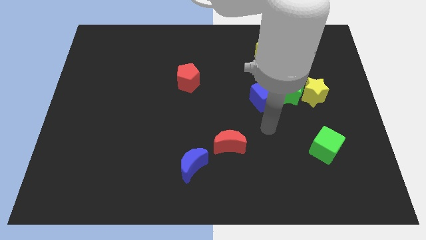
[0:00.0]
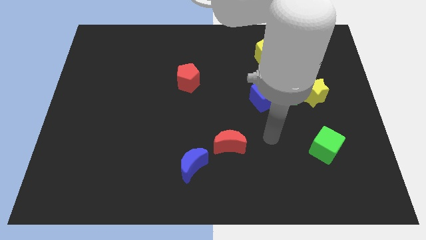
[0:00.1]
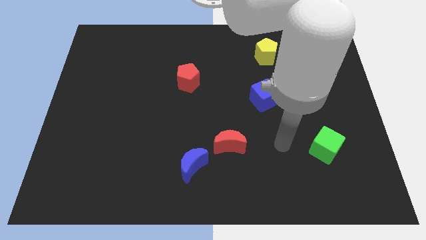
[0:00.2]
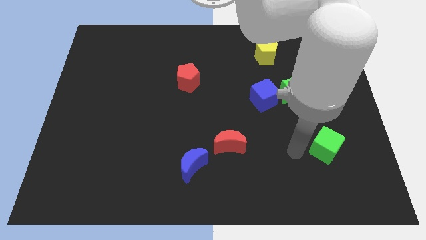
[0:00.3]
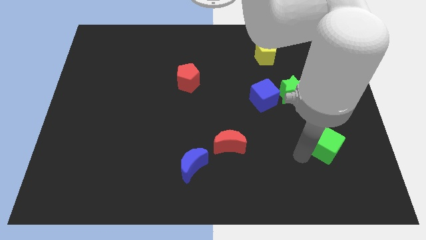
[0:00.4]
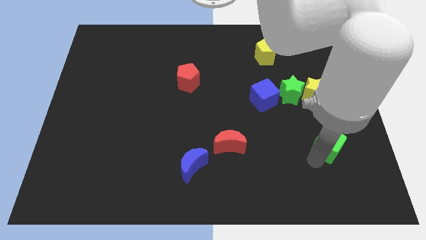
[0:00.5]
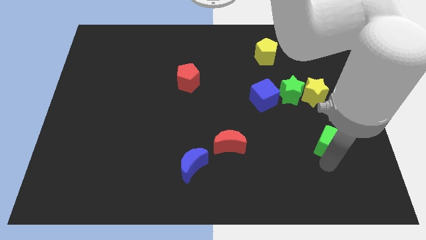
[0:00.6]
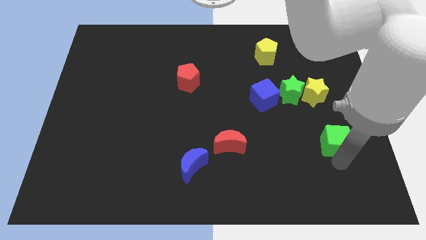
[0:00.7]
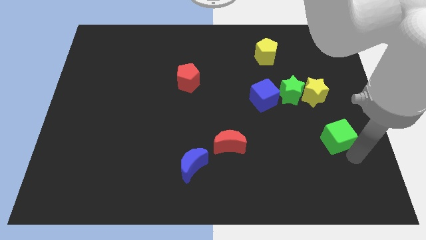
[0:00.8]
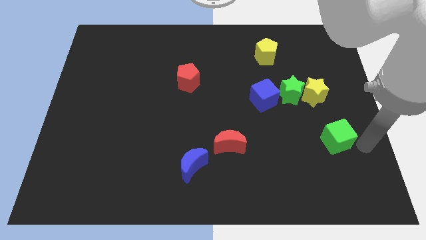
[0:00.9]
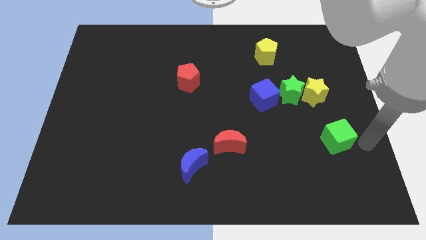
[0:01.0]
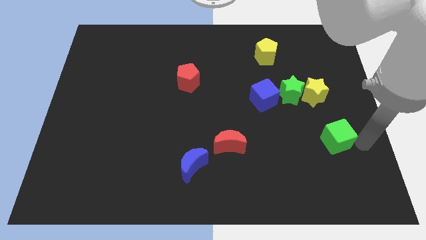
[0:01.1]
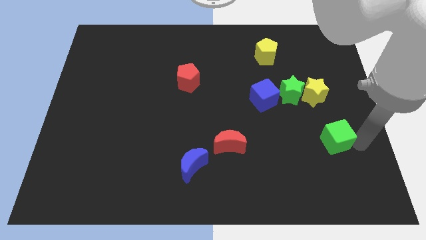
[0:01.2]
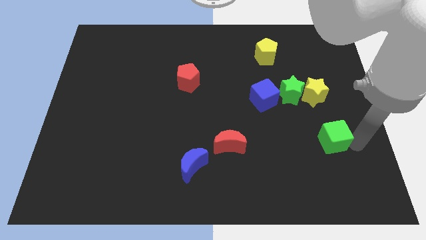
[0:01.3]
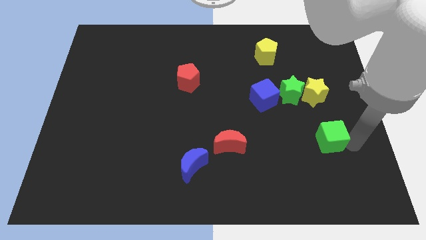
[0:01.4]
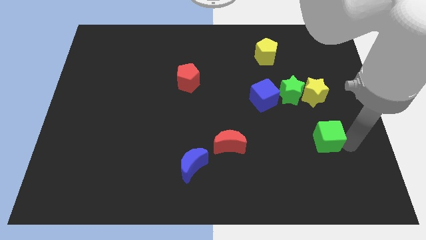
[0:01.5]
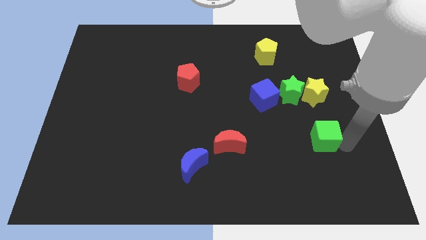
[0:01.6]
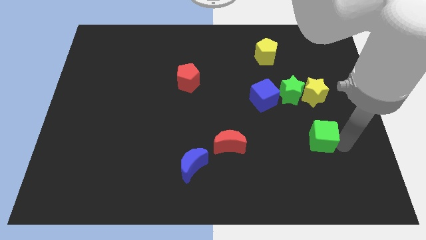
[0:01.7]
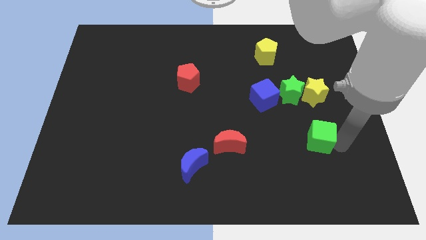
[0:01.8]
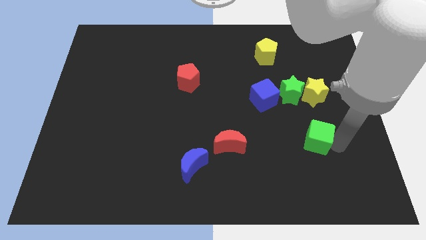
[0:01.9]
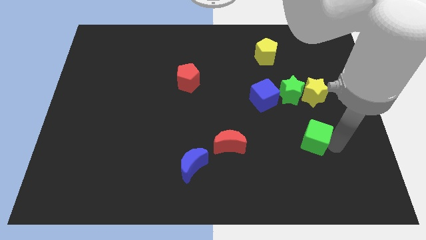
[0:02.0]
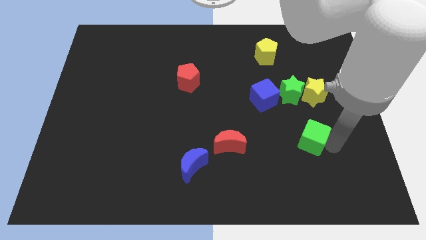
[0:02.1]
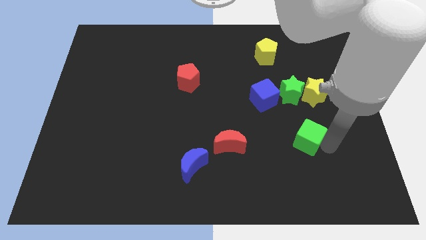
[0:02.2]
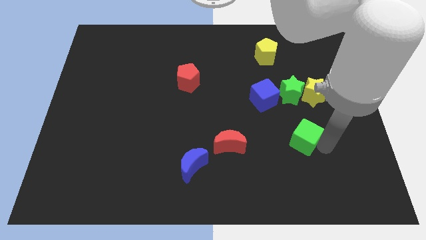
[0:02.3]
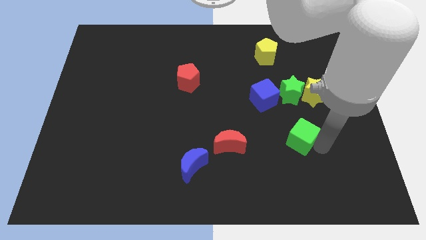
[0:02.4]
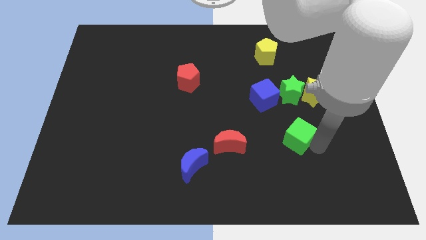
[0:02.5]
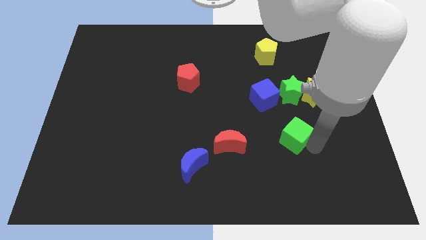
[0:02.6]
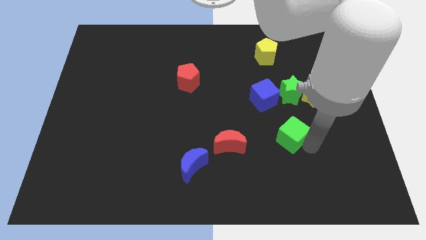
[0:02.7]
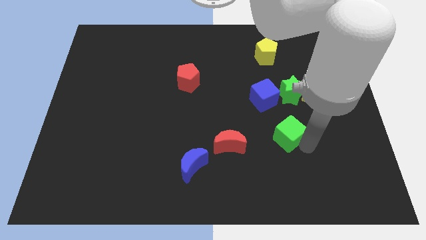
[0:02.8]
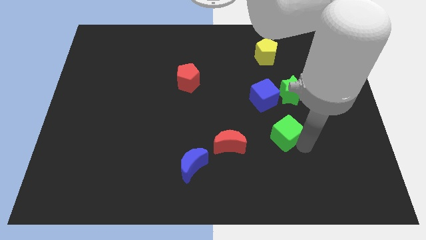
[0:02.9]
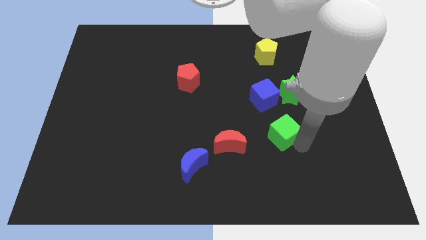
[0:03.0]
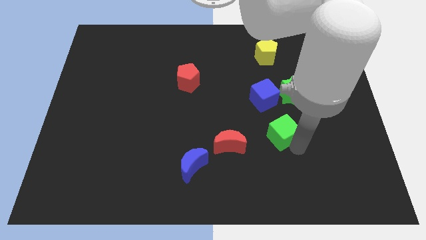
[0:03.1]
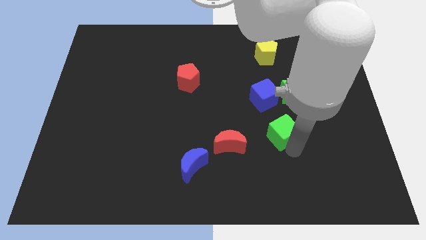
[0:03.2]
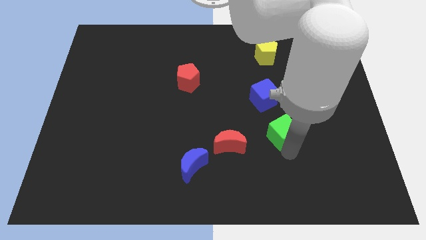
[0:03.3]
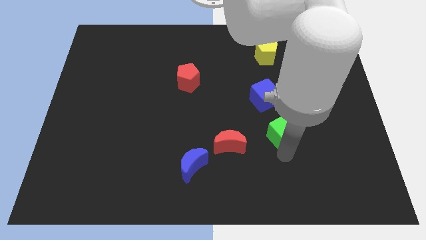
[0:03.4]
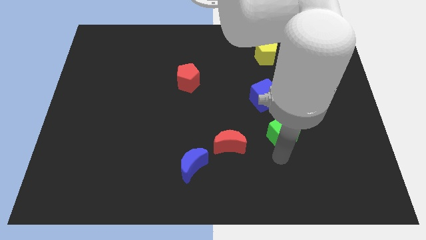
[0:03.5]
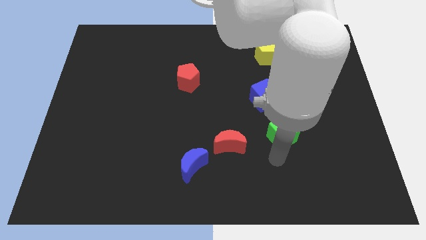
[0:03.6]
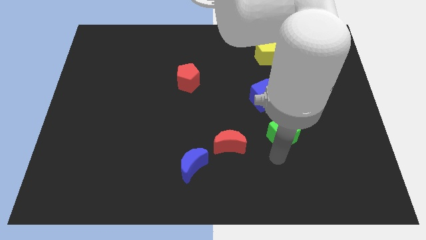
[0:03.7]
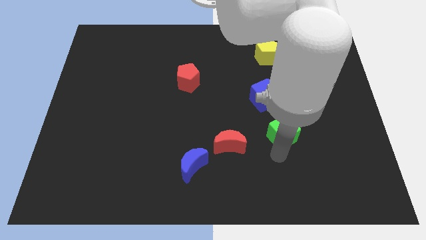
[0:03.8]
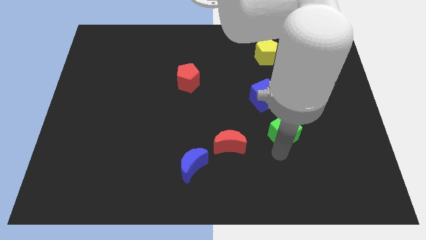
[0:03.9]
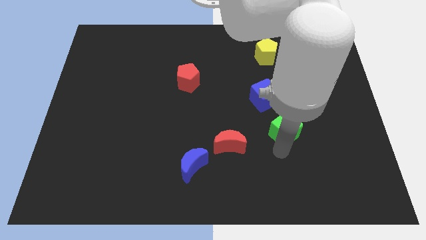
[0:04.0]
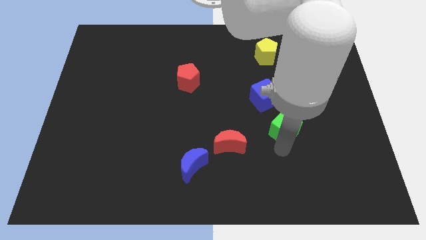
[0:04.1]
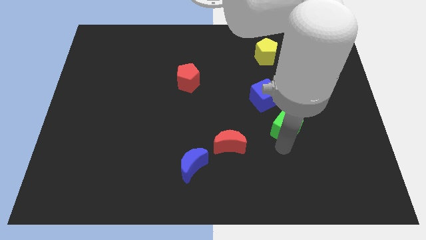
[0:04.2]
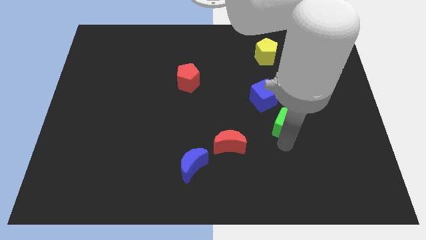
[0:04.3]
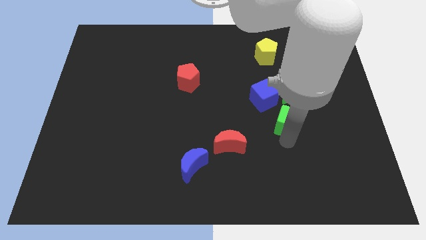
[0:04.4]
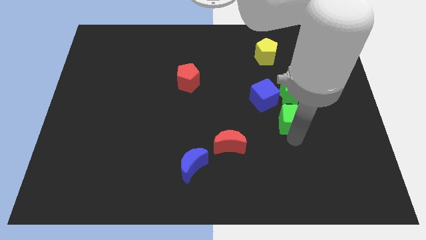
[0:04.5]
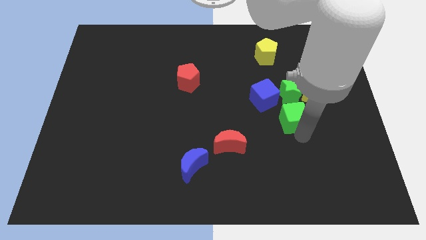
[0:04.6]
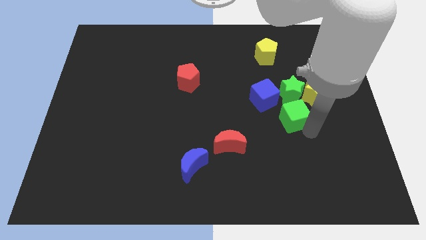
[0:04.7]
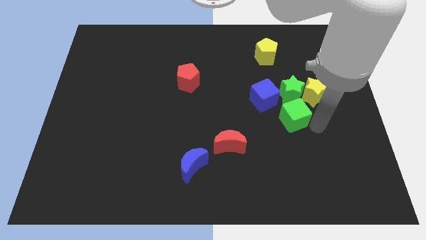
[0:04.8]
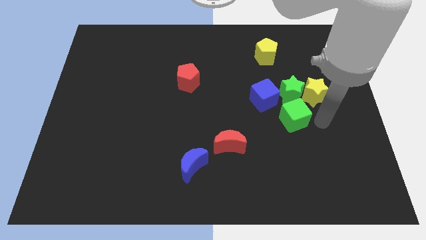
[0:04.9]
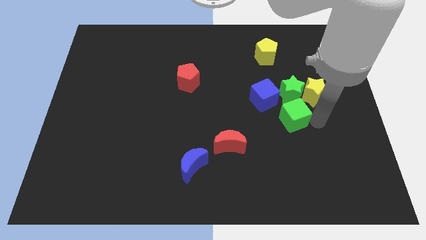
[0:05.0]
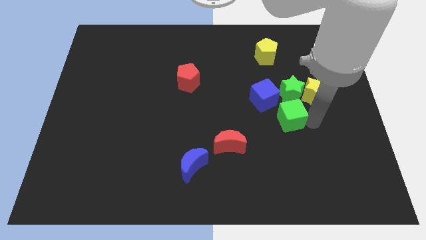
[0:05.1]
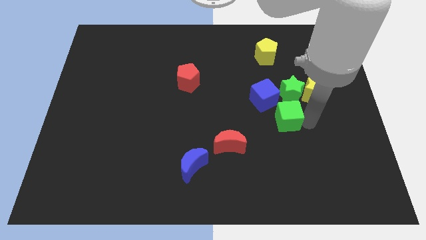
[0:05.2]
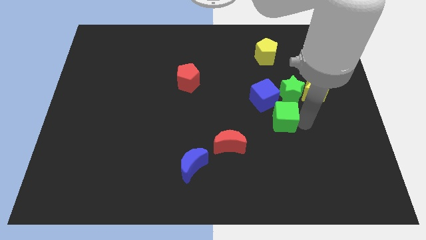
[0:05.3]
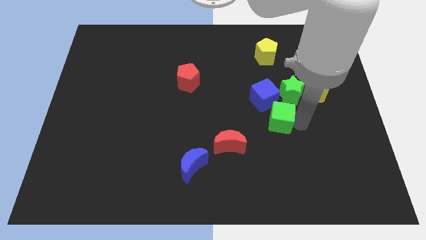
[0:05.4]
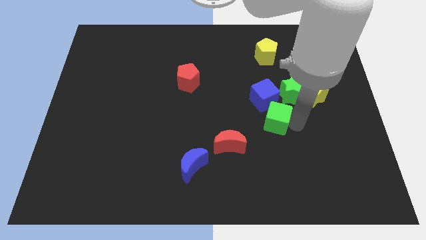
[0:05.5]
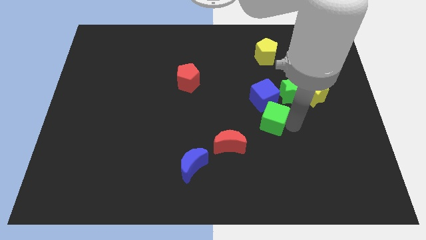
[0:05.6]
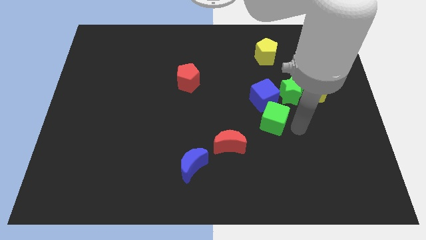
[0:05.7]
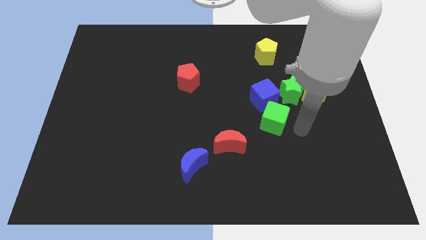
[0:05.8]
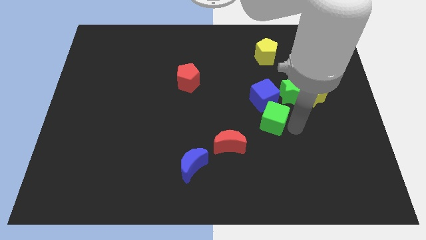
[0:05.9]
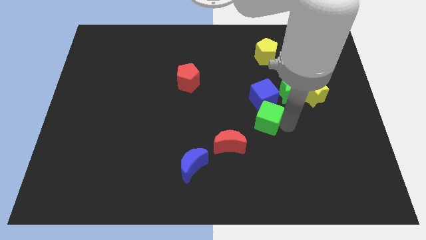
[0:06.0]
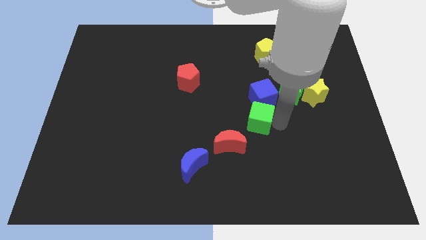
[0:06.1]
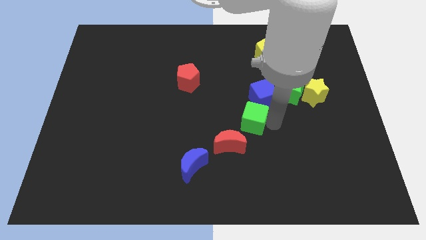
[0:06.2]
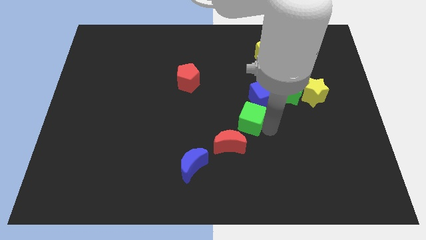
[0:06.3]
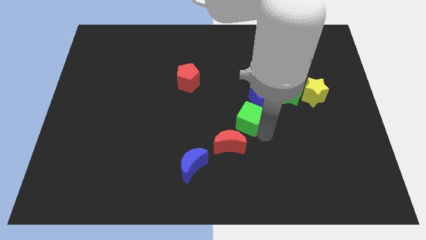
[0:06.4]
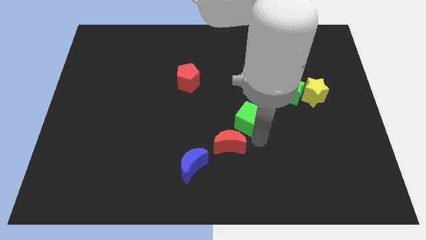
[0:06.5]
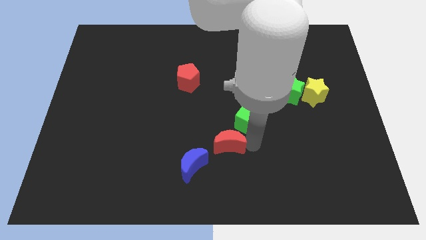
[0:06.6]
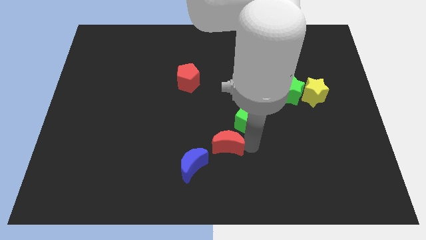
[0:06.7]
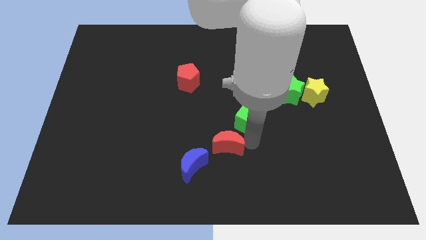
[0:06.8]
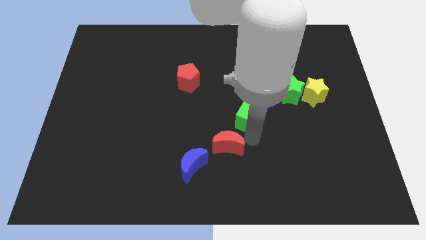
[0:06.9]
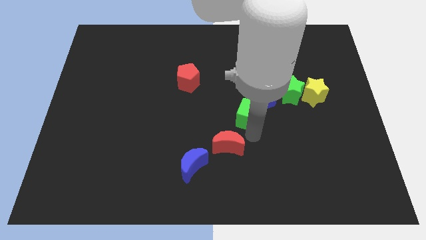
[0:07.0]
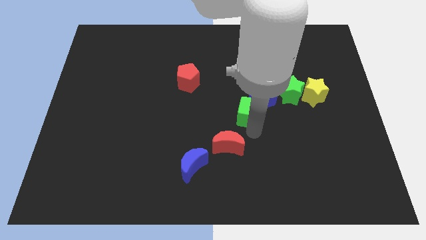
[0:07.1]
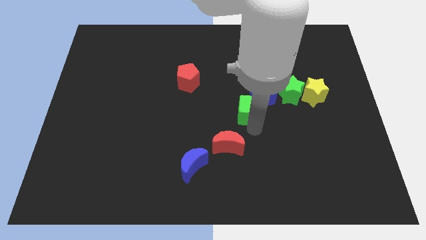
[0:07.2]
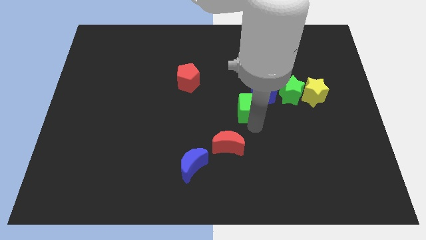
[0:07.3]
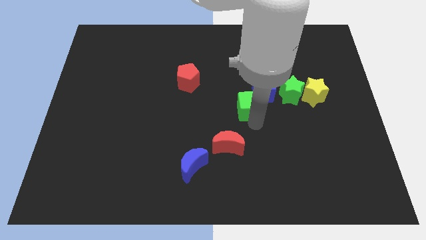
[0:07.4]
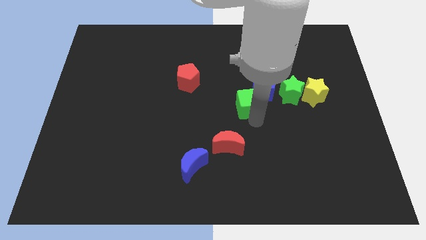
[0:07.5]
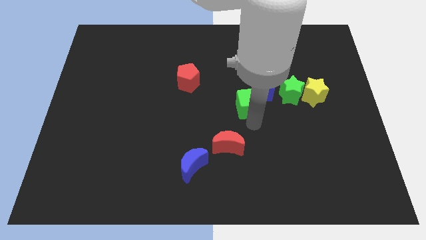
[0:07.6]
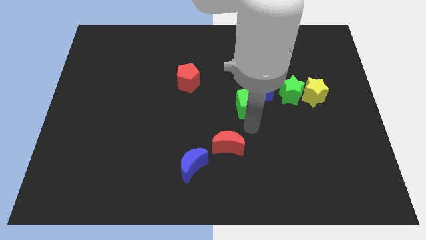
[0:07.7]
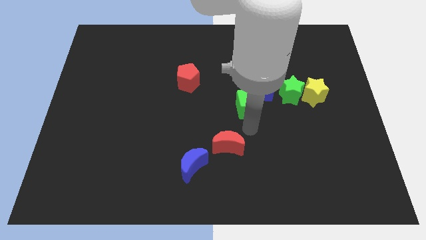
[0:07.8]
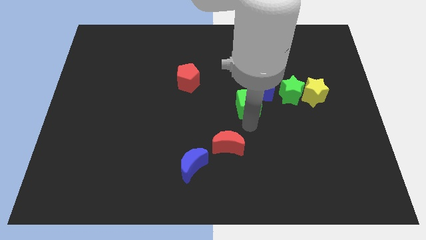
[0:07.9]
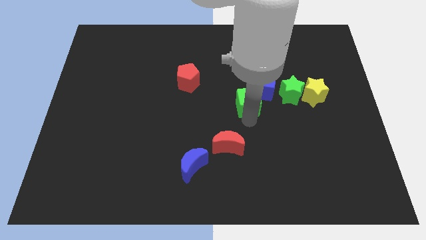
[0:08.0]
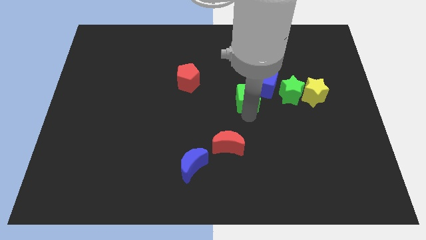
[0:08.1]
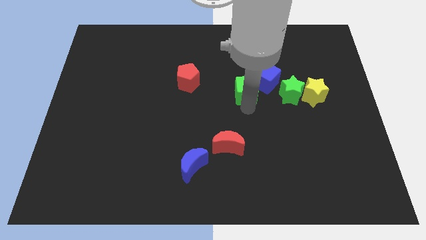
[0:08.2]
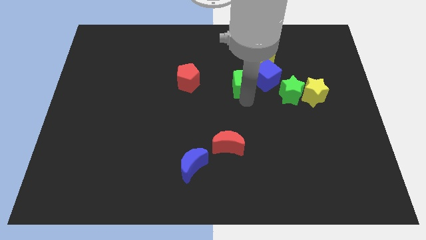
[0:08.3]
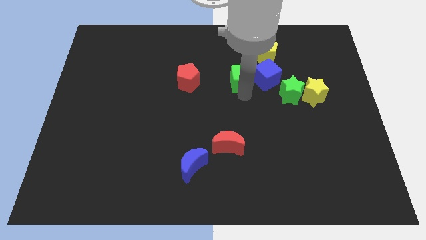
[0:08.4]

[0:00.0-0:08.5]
push the green cube to the bottom left side of the yellow pentagon
